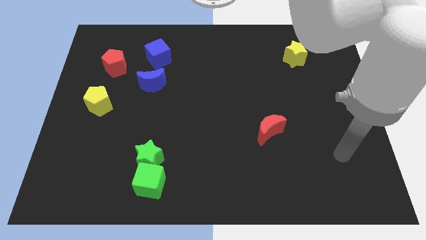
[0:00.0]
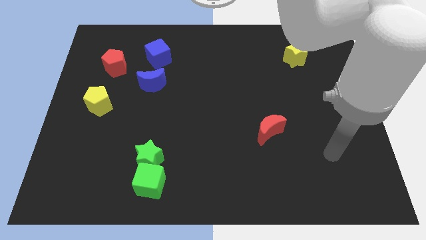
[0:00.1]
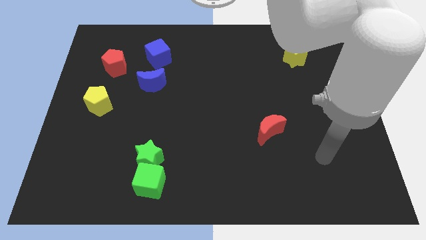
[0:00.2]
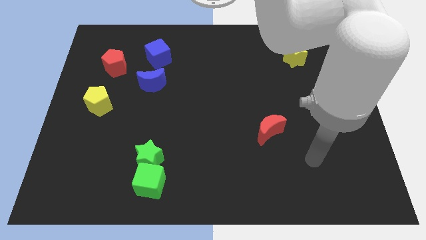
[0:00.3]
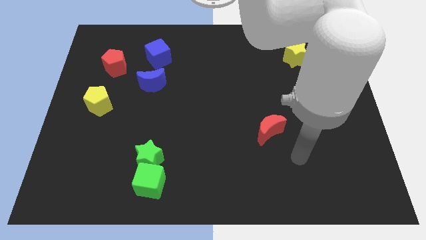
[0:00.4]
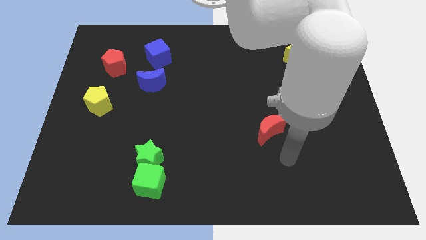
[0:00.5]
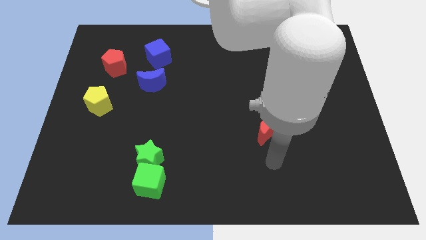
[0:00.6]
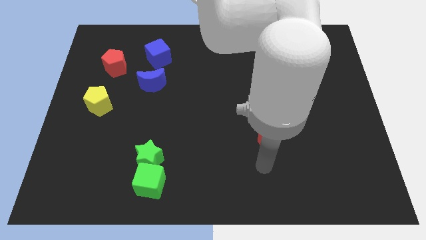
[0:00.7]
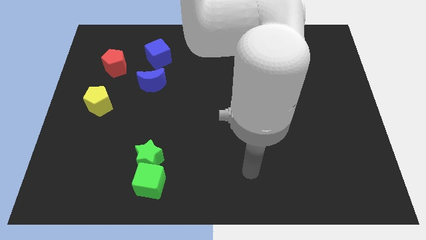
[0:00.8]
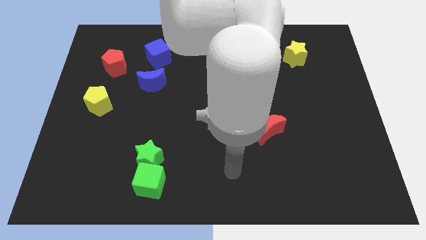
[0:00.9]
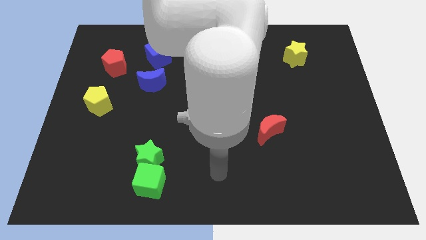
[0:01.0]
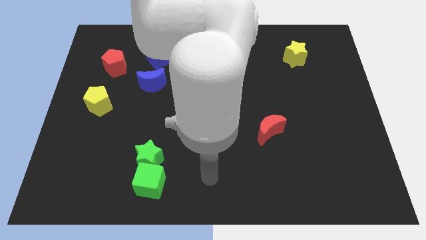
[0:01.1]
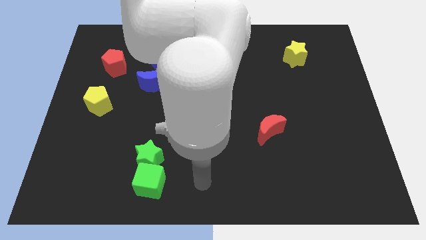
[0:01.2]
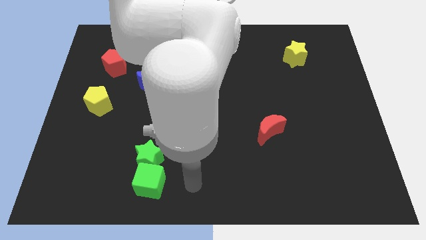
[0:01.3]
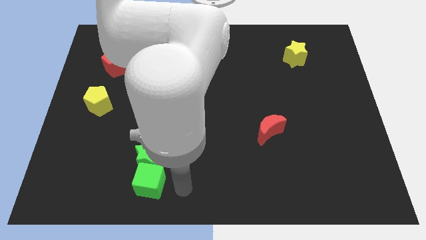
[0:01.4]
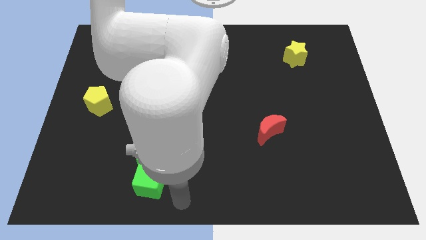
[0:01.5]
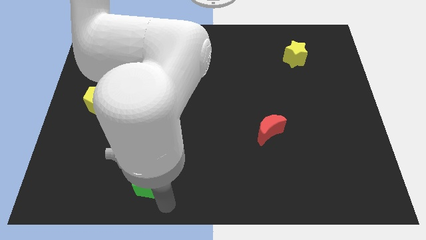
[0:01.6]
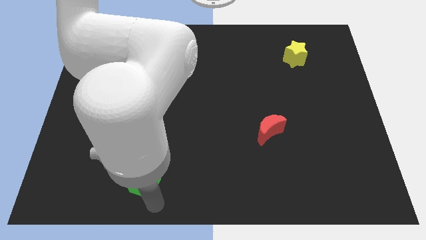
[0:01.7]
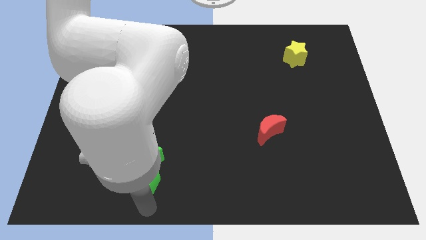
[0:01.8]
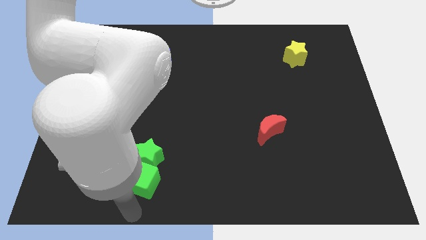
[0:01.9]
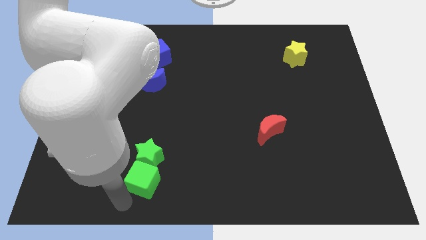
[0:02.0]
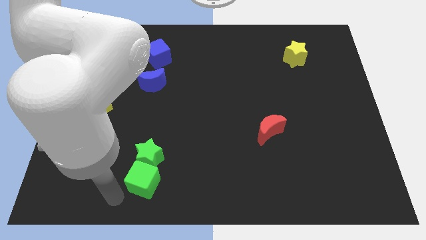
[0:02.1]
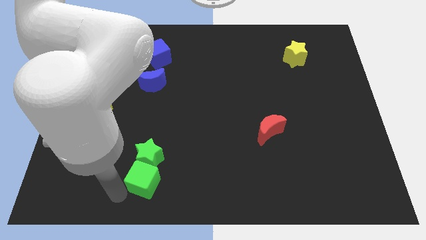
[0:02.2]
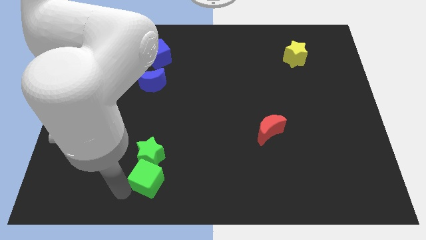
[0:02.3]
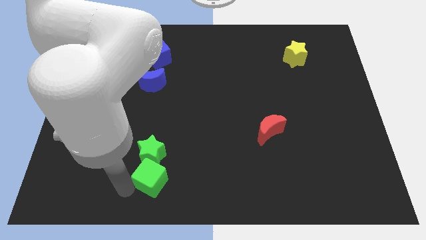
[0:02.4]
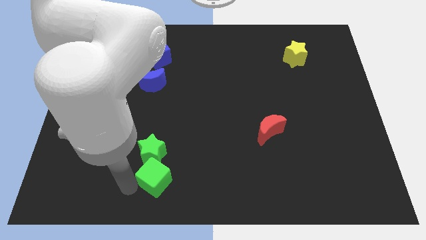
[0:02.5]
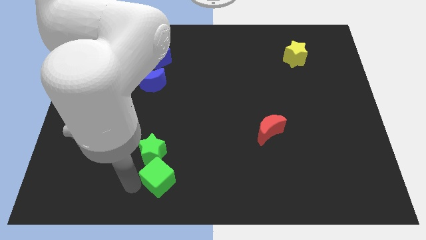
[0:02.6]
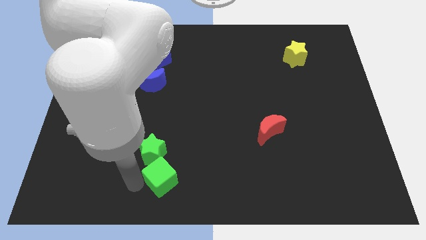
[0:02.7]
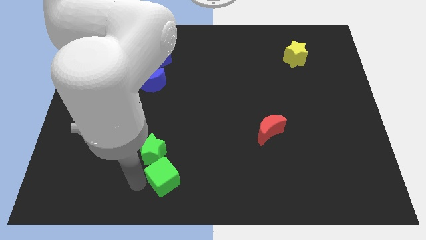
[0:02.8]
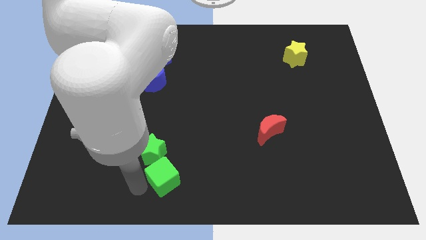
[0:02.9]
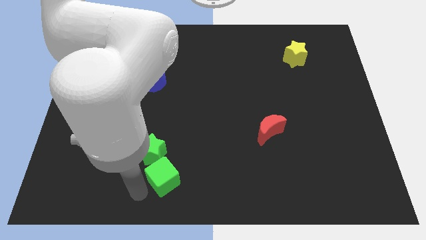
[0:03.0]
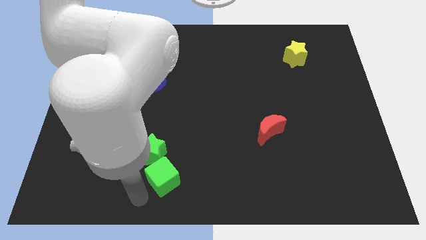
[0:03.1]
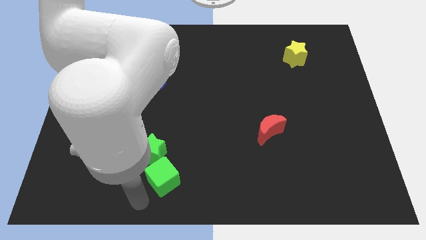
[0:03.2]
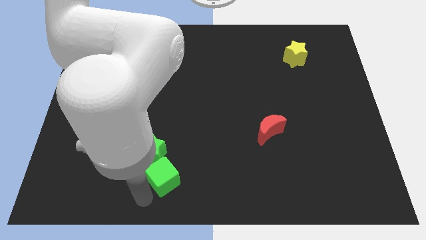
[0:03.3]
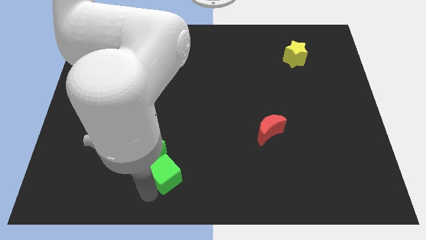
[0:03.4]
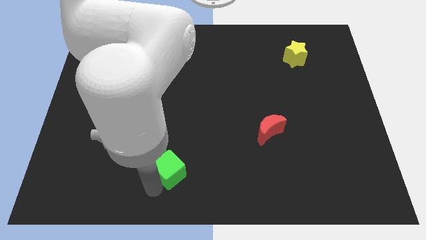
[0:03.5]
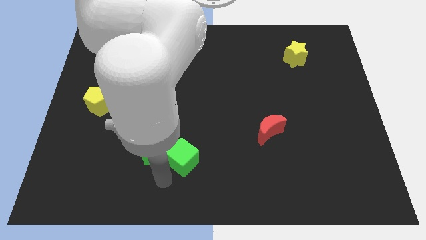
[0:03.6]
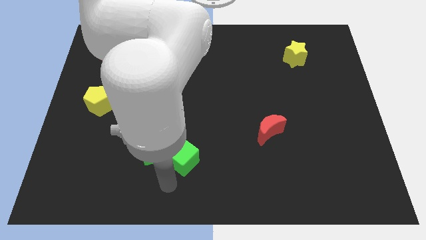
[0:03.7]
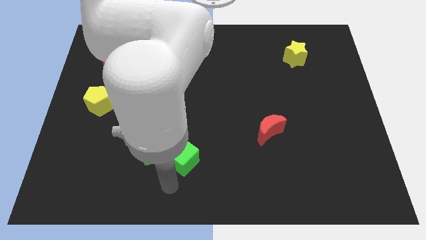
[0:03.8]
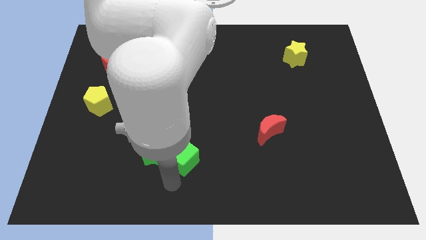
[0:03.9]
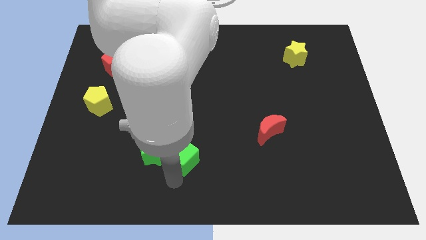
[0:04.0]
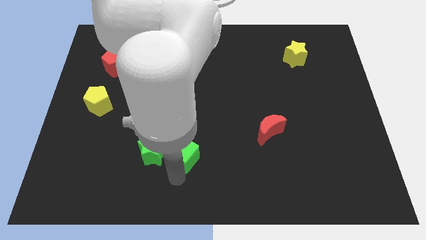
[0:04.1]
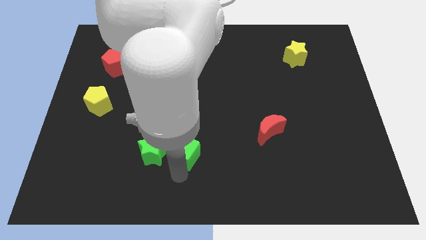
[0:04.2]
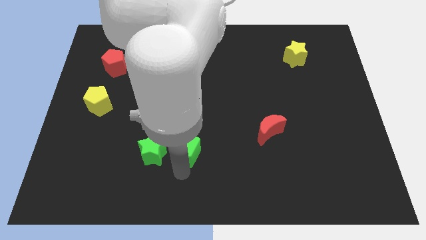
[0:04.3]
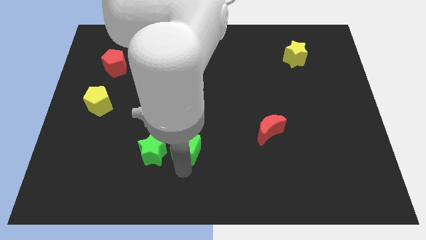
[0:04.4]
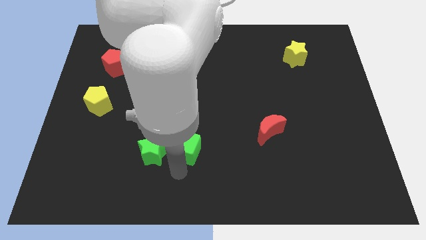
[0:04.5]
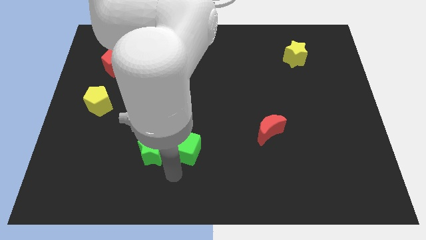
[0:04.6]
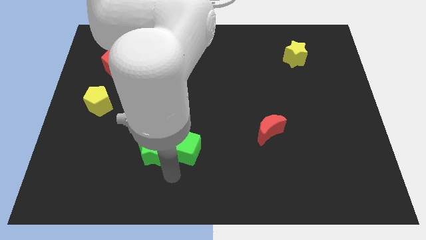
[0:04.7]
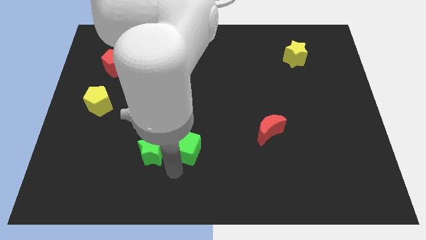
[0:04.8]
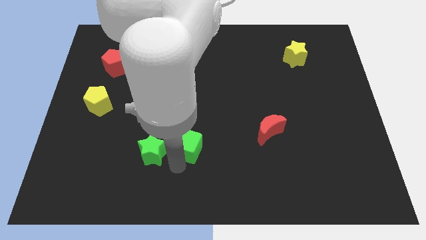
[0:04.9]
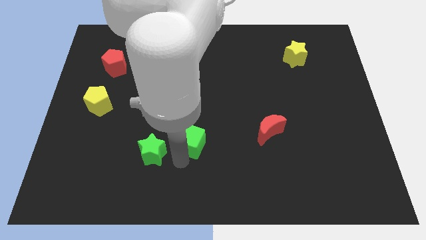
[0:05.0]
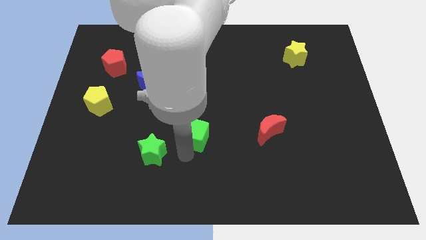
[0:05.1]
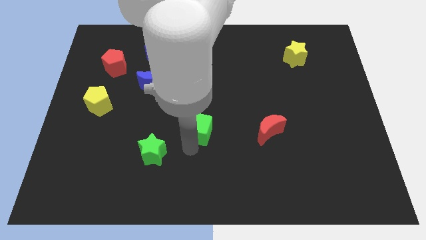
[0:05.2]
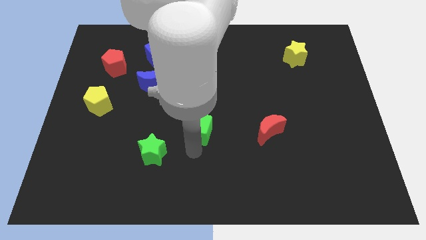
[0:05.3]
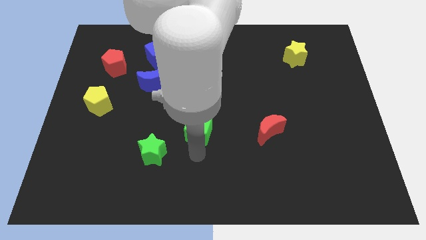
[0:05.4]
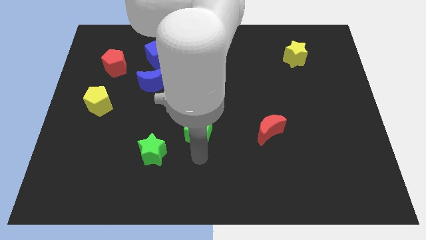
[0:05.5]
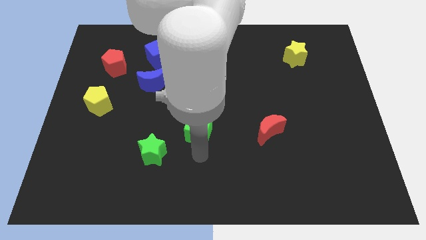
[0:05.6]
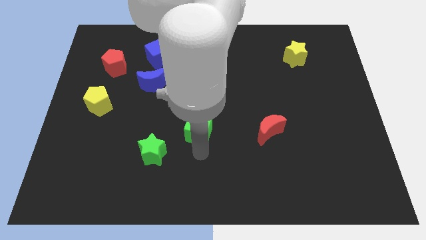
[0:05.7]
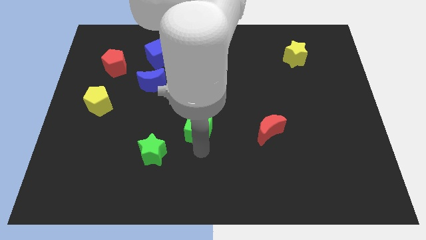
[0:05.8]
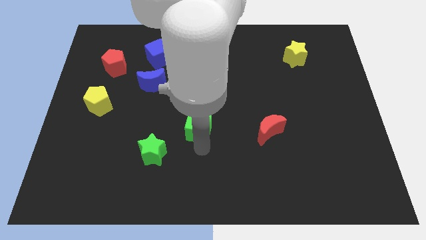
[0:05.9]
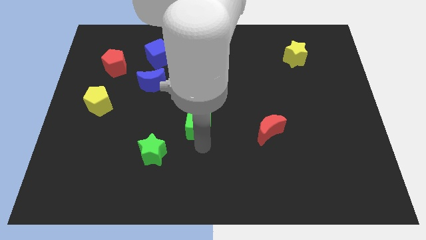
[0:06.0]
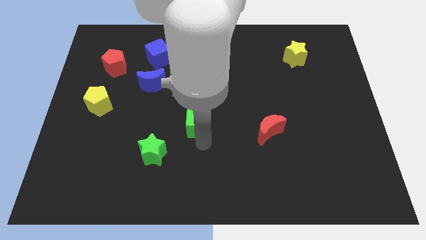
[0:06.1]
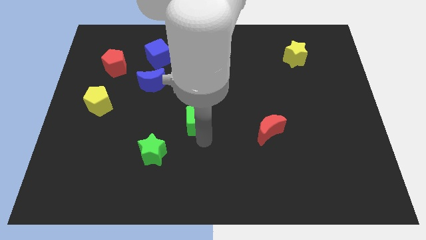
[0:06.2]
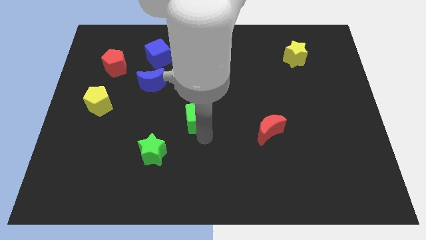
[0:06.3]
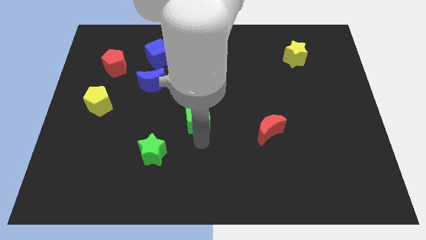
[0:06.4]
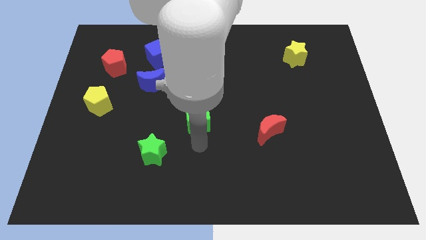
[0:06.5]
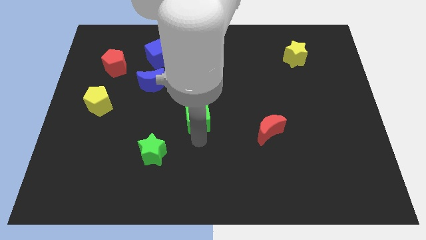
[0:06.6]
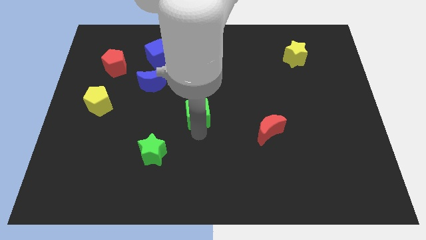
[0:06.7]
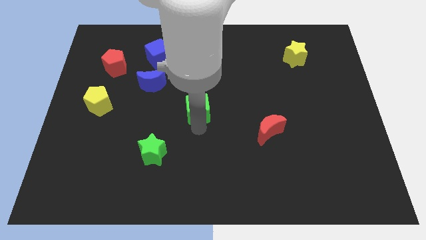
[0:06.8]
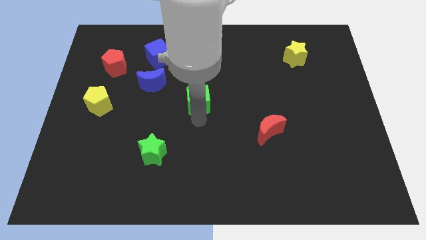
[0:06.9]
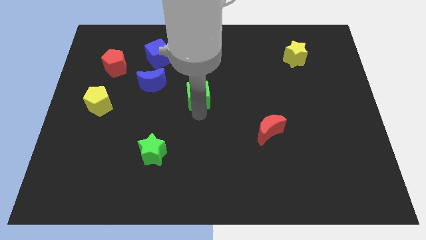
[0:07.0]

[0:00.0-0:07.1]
move the green cube to the right side of the blue moon
